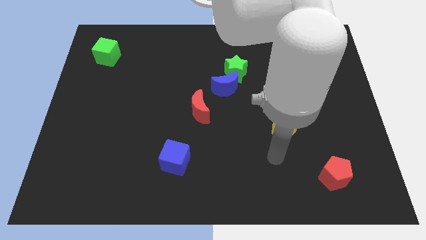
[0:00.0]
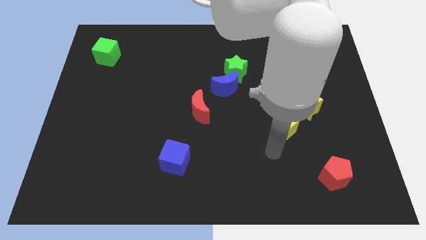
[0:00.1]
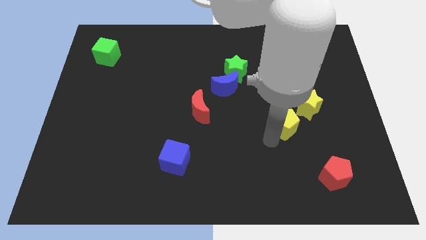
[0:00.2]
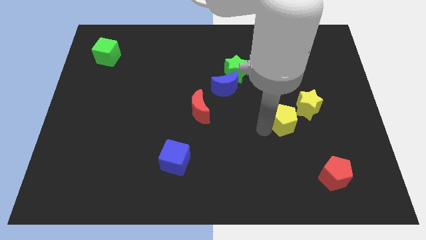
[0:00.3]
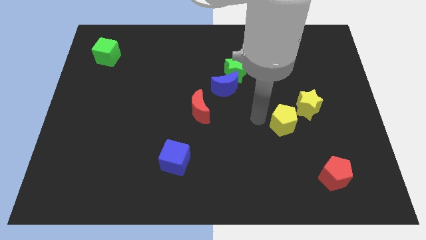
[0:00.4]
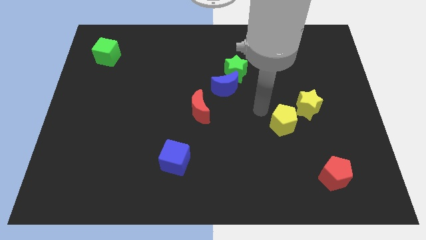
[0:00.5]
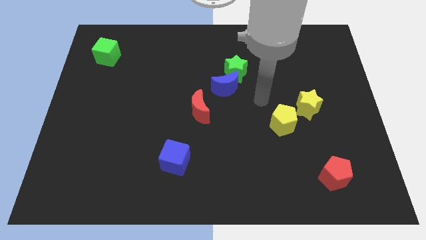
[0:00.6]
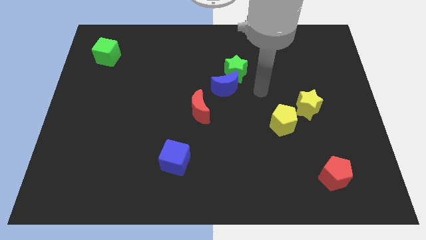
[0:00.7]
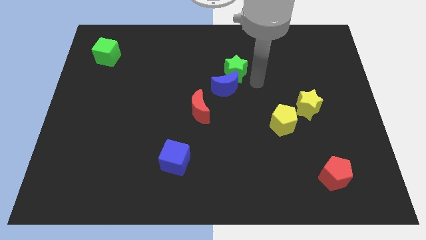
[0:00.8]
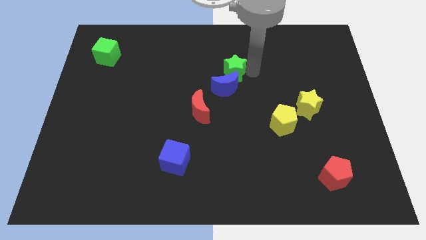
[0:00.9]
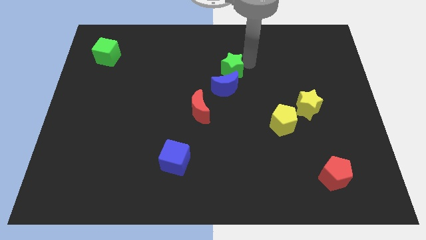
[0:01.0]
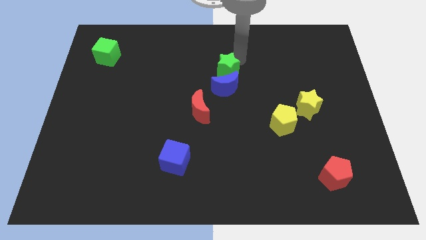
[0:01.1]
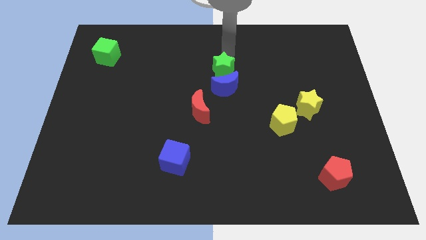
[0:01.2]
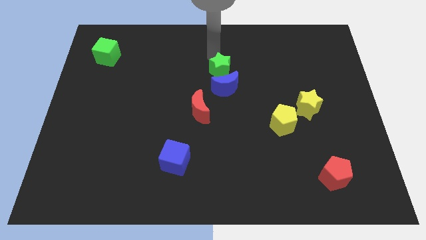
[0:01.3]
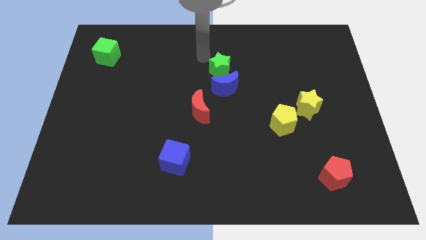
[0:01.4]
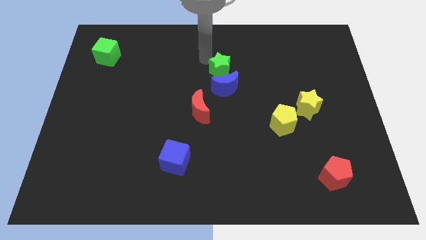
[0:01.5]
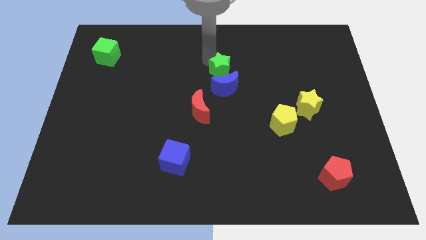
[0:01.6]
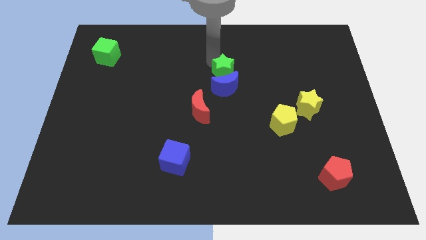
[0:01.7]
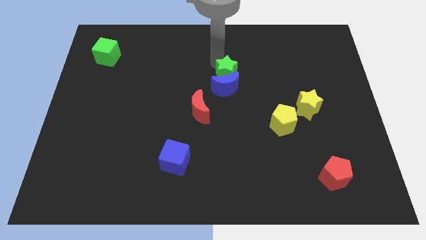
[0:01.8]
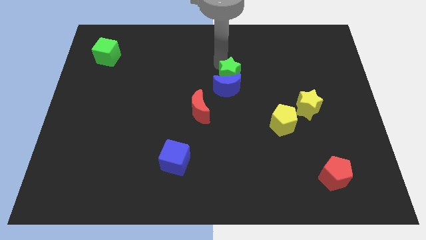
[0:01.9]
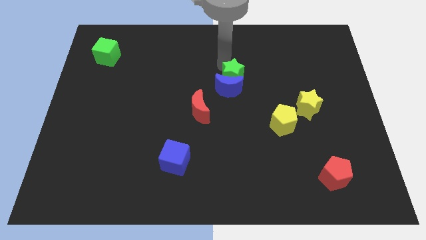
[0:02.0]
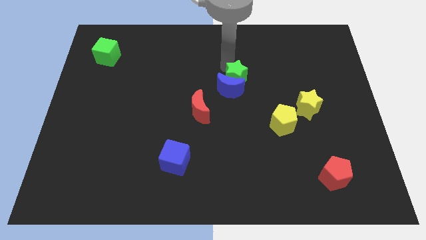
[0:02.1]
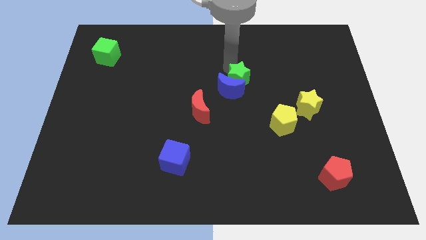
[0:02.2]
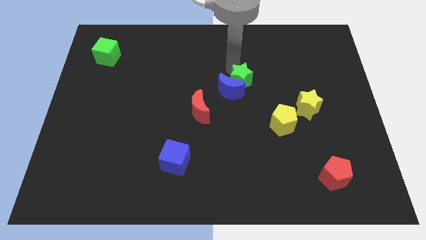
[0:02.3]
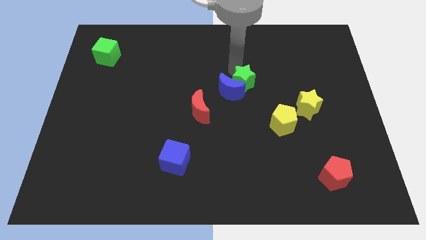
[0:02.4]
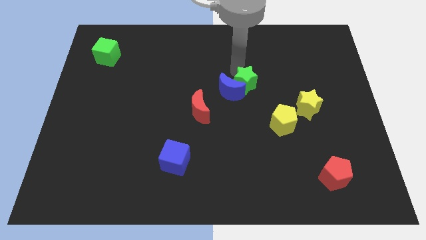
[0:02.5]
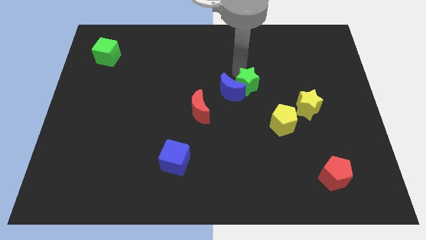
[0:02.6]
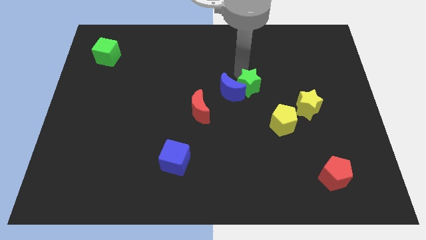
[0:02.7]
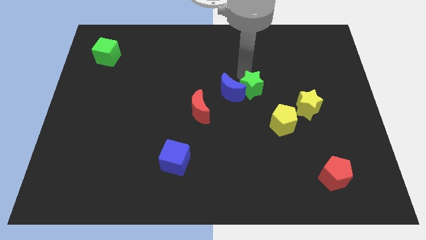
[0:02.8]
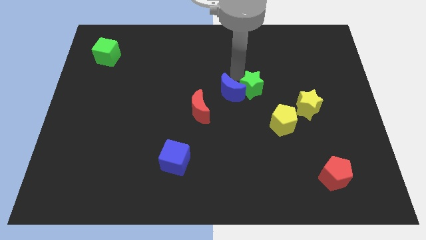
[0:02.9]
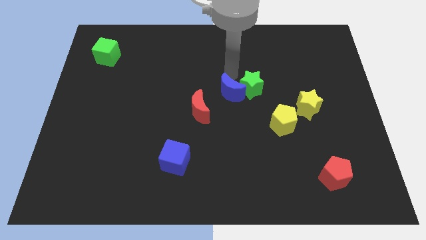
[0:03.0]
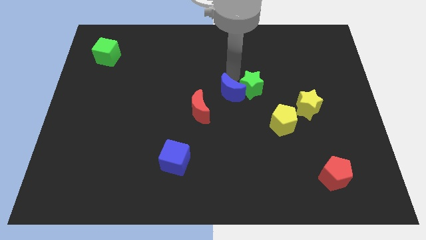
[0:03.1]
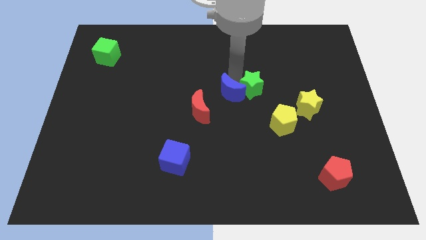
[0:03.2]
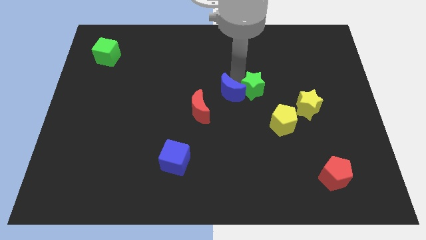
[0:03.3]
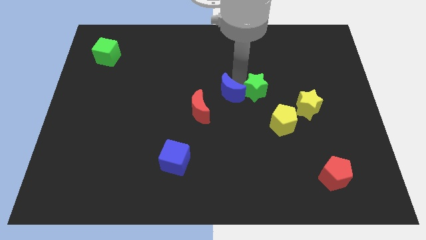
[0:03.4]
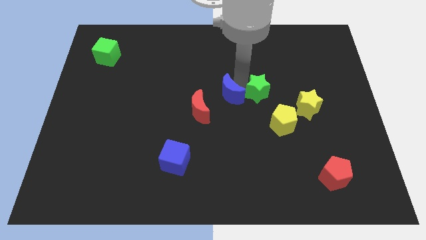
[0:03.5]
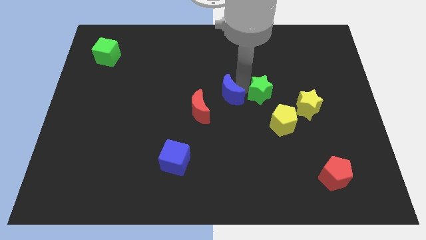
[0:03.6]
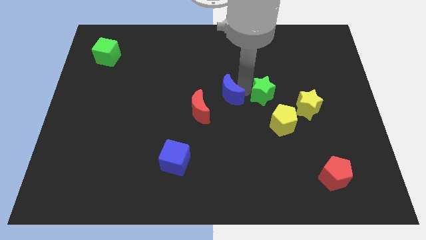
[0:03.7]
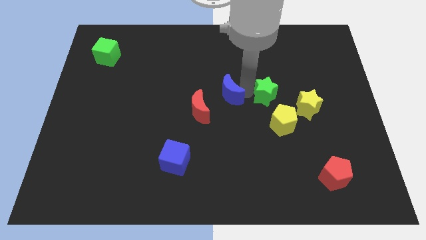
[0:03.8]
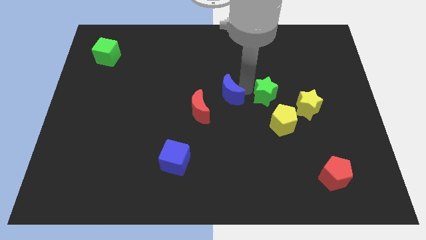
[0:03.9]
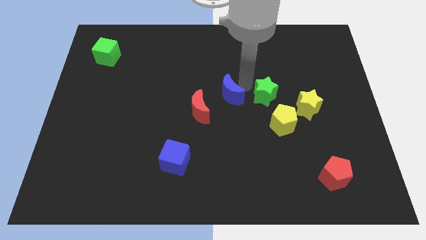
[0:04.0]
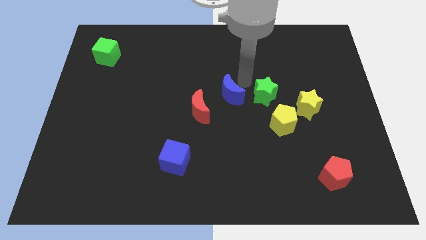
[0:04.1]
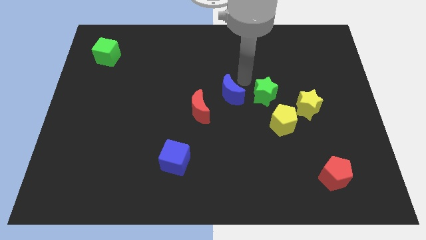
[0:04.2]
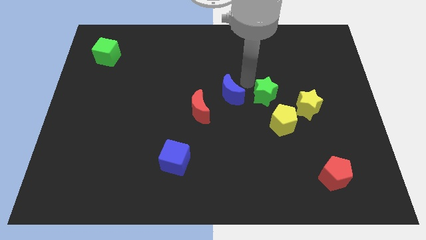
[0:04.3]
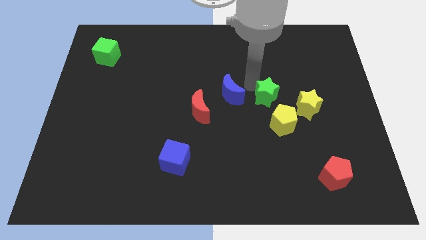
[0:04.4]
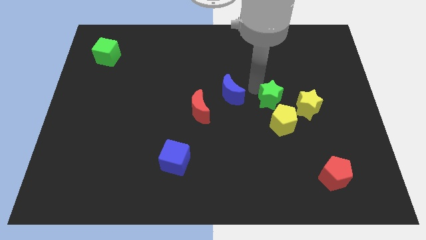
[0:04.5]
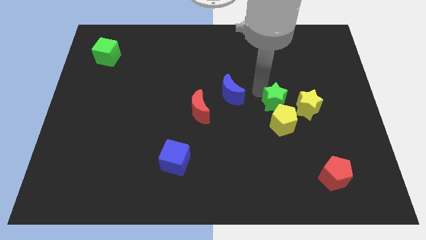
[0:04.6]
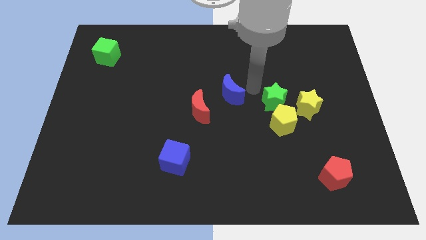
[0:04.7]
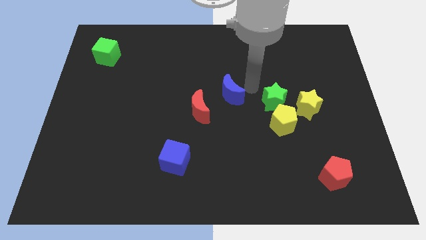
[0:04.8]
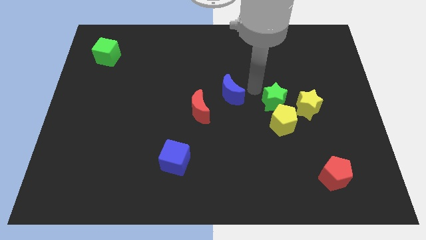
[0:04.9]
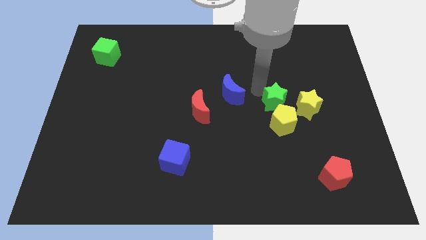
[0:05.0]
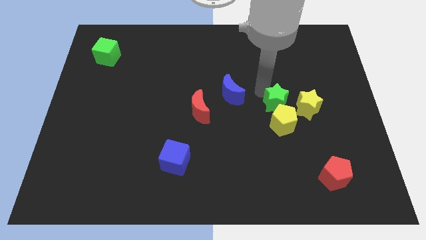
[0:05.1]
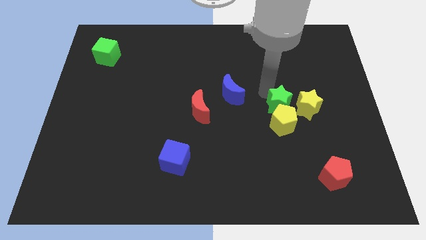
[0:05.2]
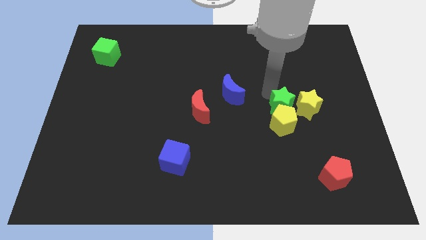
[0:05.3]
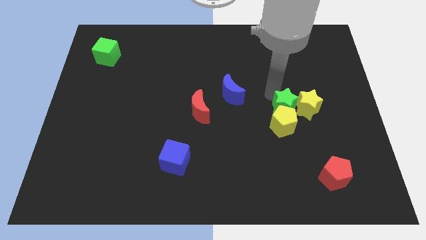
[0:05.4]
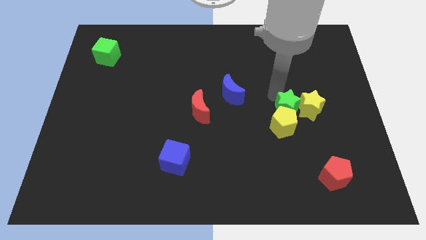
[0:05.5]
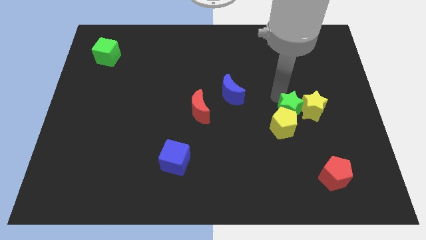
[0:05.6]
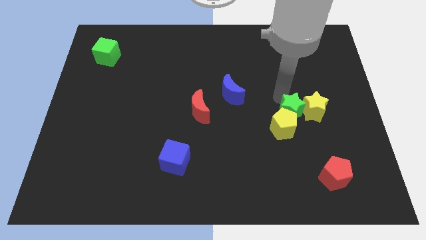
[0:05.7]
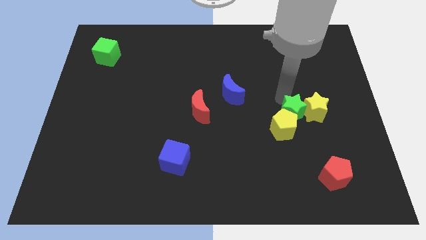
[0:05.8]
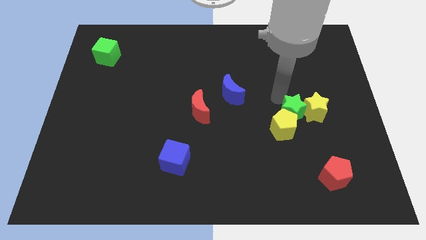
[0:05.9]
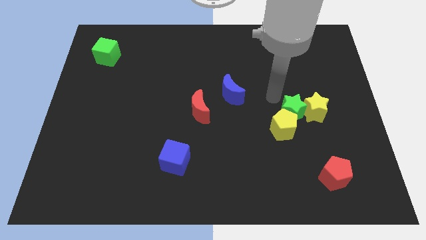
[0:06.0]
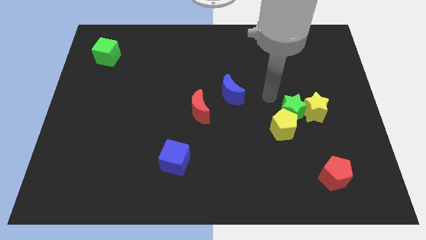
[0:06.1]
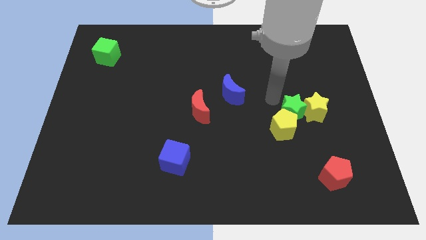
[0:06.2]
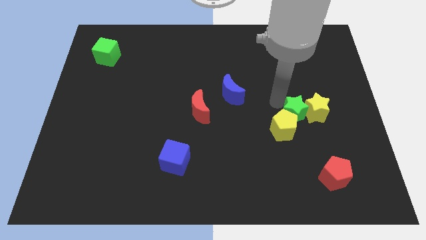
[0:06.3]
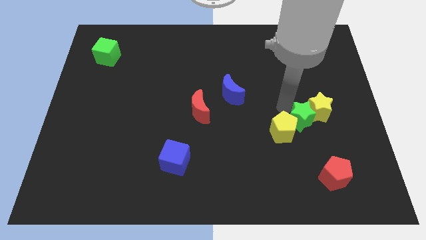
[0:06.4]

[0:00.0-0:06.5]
move the green star downwards and right diagonally

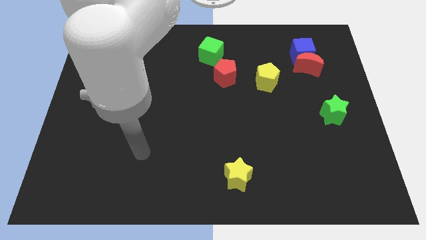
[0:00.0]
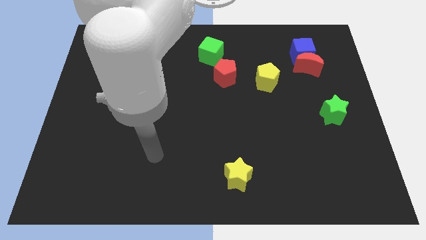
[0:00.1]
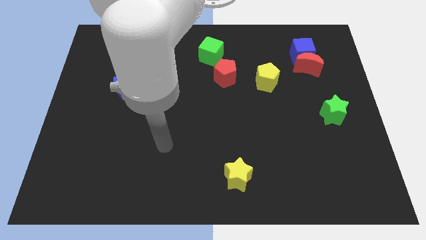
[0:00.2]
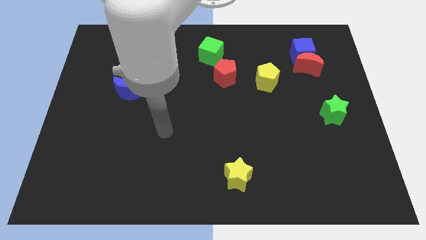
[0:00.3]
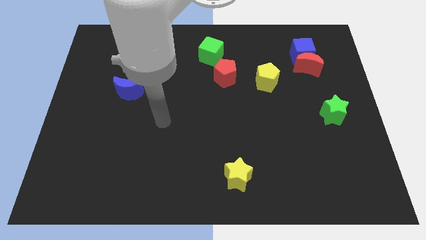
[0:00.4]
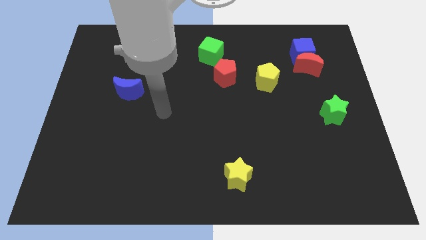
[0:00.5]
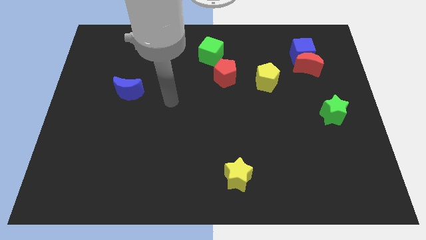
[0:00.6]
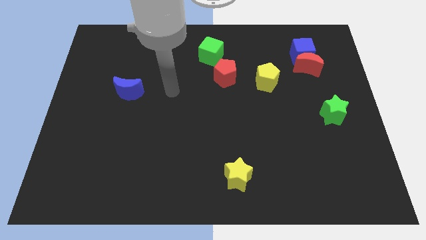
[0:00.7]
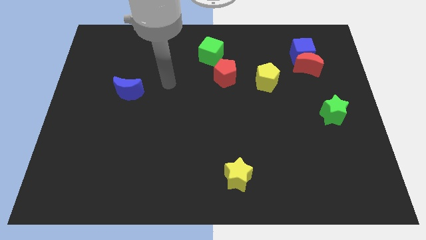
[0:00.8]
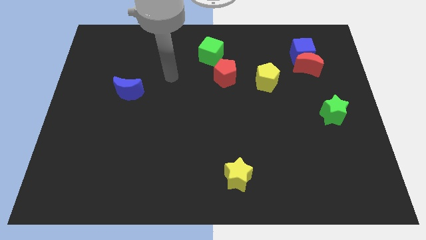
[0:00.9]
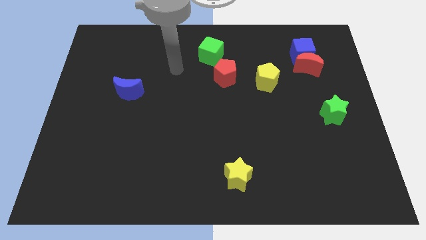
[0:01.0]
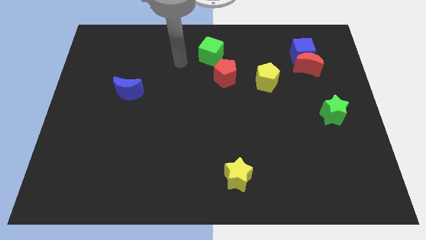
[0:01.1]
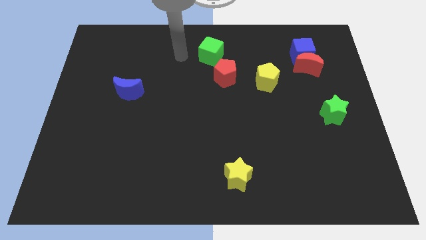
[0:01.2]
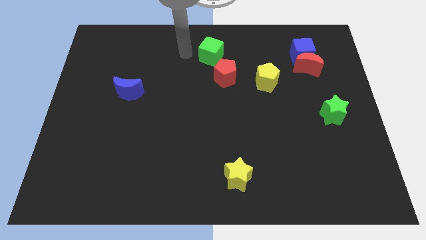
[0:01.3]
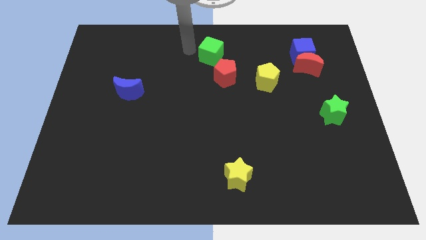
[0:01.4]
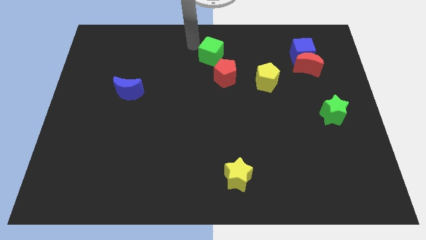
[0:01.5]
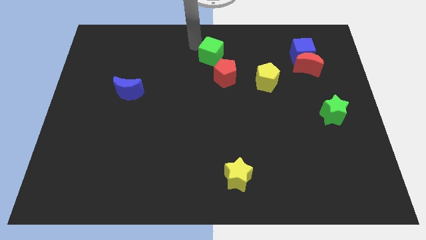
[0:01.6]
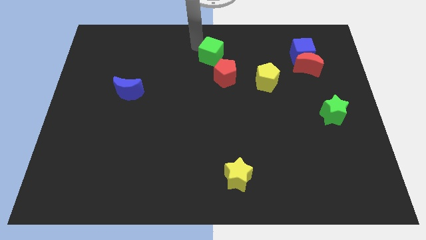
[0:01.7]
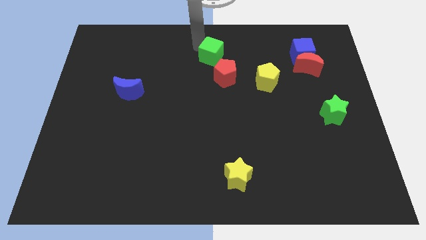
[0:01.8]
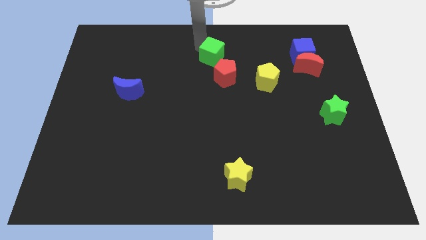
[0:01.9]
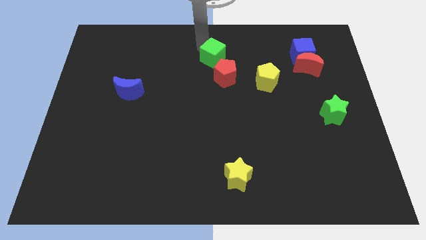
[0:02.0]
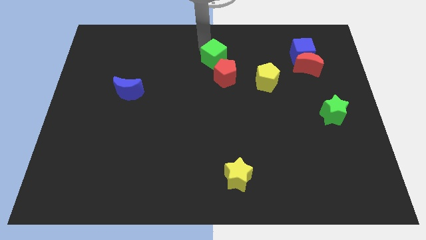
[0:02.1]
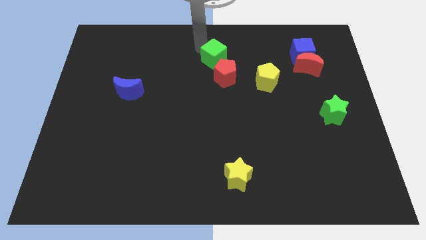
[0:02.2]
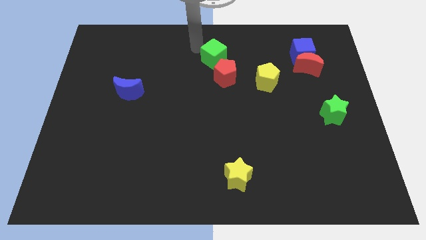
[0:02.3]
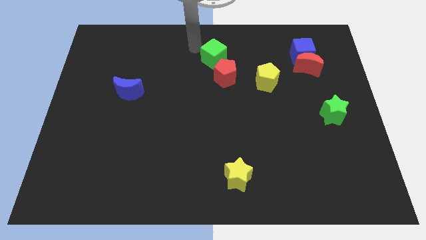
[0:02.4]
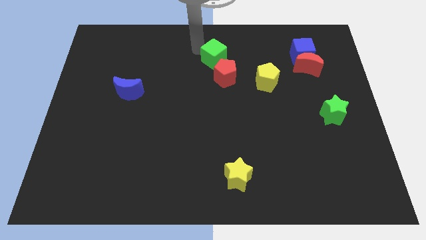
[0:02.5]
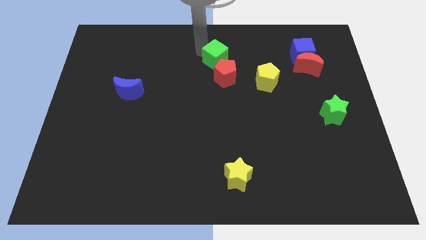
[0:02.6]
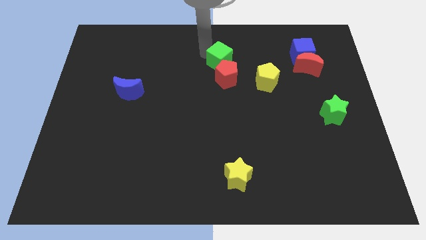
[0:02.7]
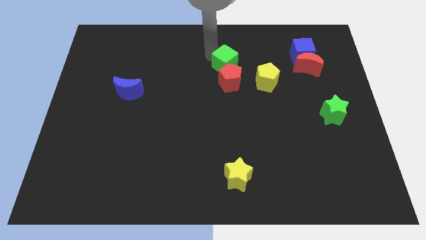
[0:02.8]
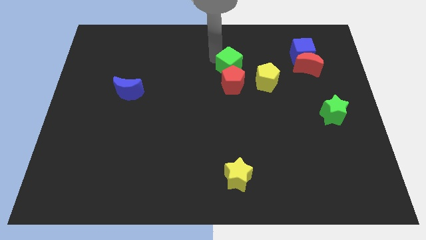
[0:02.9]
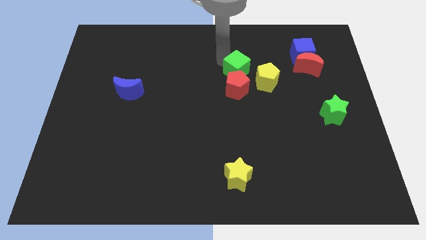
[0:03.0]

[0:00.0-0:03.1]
push the green cube downwards and then right slightly
